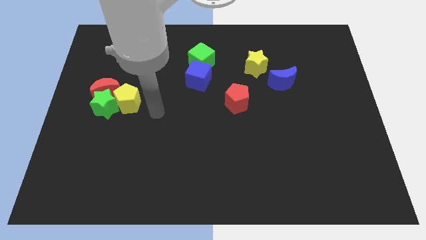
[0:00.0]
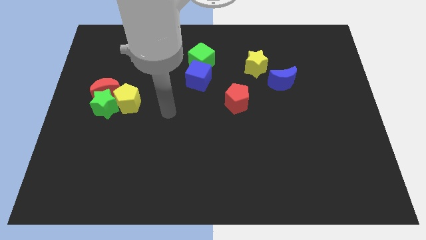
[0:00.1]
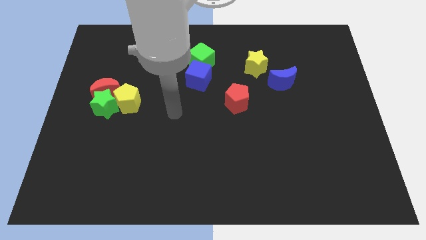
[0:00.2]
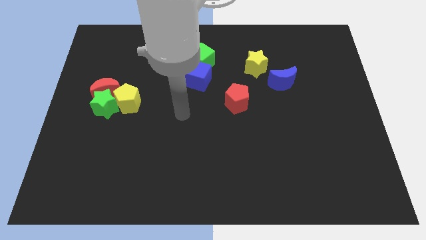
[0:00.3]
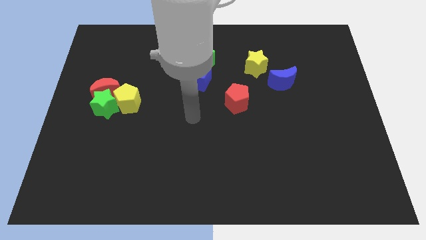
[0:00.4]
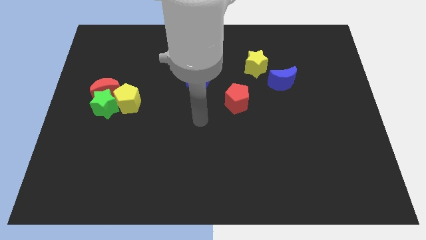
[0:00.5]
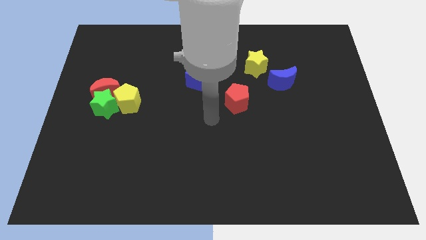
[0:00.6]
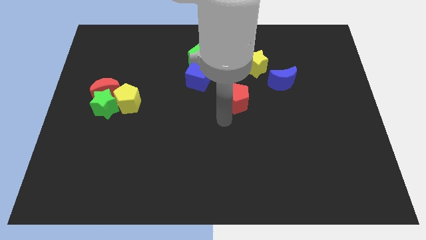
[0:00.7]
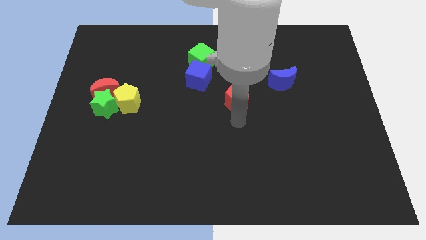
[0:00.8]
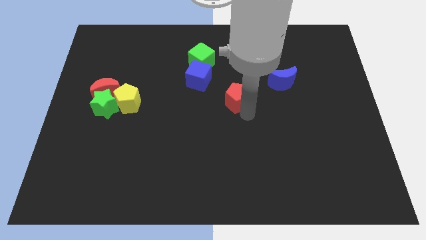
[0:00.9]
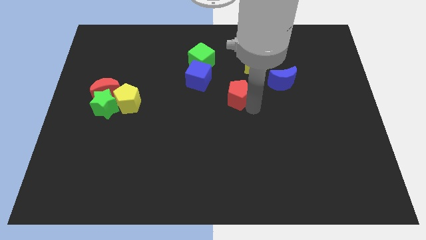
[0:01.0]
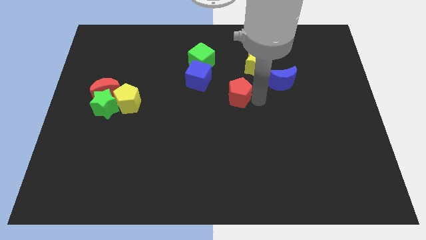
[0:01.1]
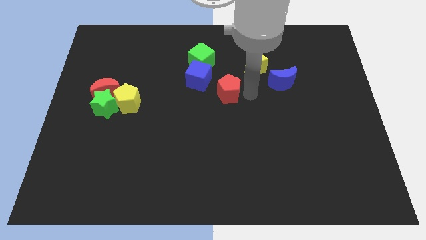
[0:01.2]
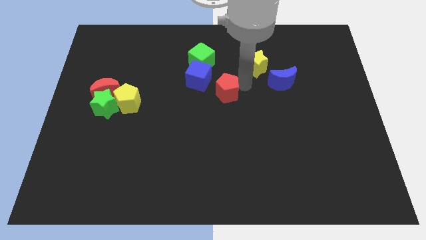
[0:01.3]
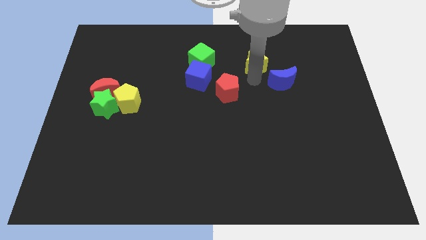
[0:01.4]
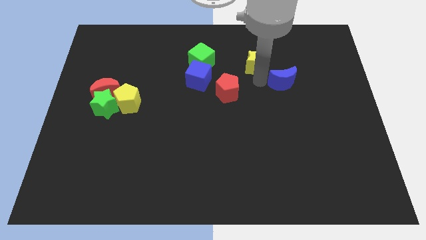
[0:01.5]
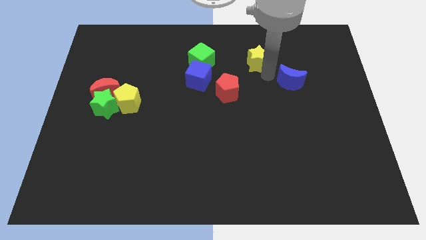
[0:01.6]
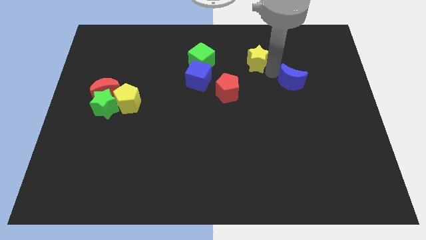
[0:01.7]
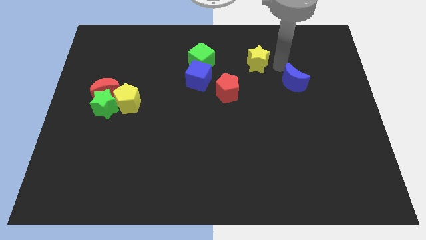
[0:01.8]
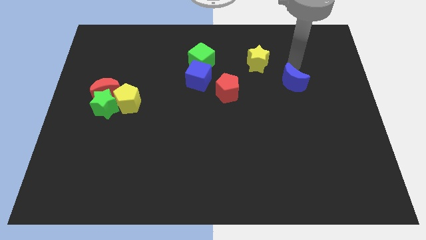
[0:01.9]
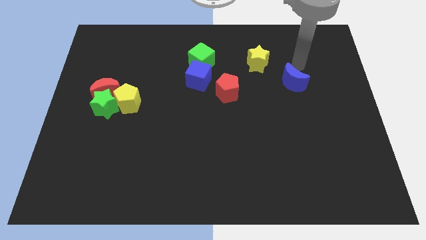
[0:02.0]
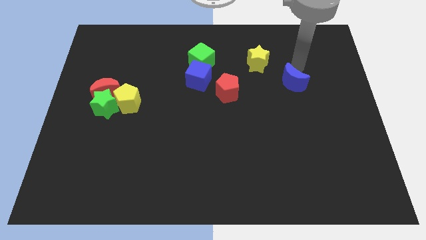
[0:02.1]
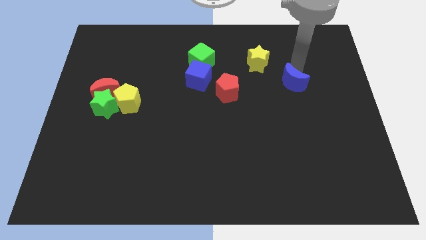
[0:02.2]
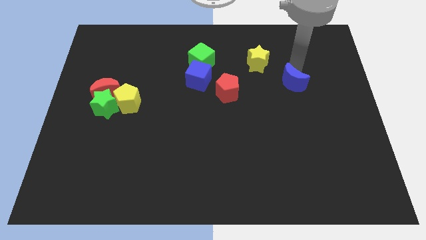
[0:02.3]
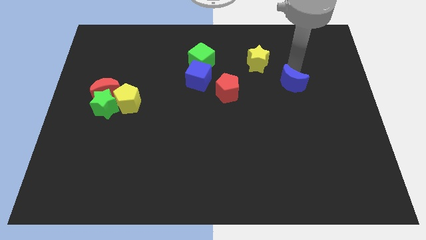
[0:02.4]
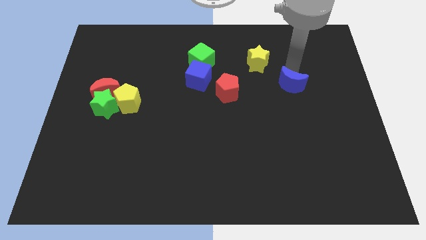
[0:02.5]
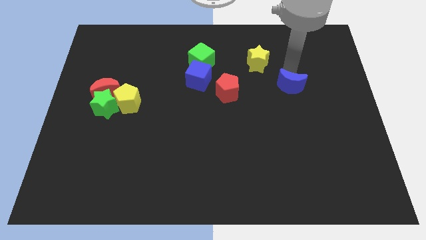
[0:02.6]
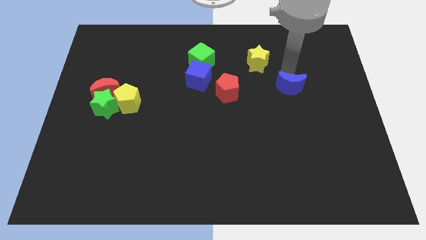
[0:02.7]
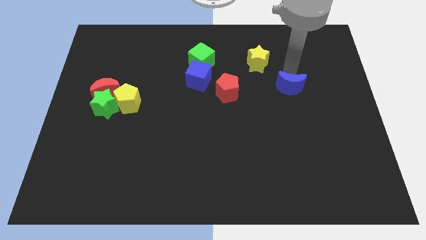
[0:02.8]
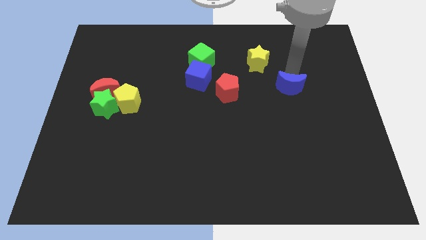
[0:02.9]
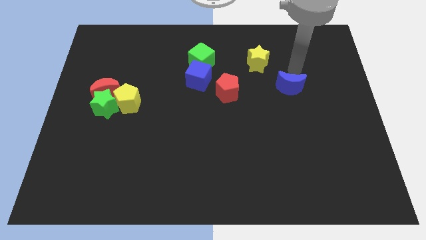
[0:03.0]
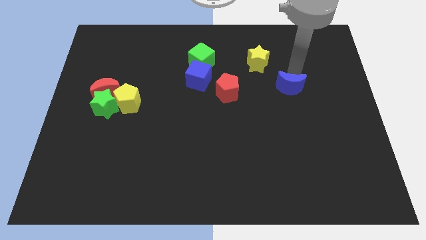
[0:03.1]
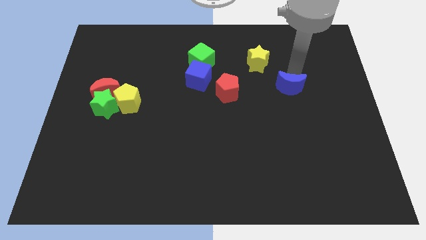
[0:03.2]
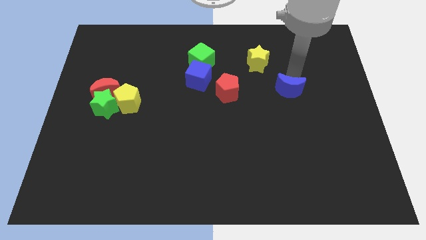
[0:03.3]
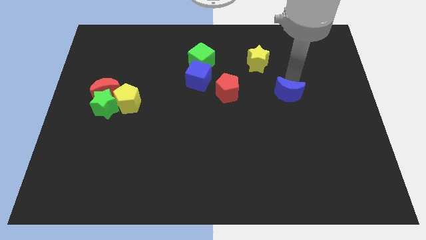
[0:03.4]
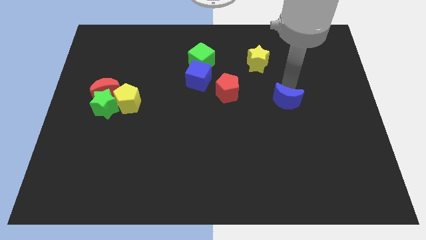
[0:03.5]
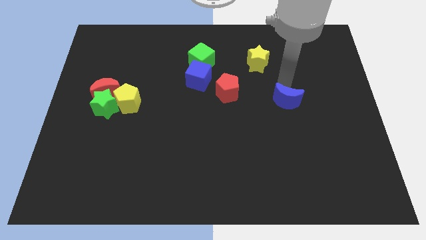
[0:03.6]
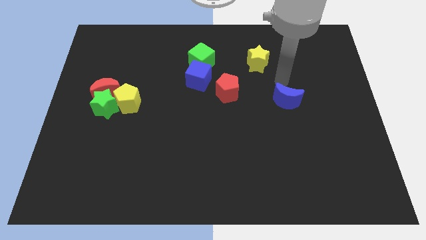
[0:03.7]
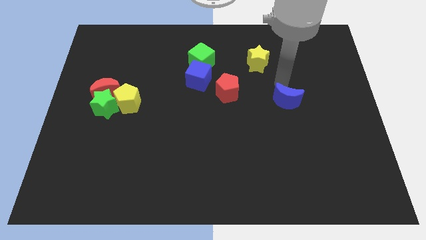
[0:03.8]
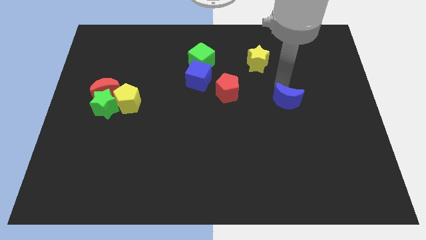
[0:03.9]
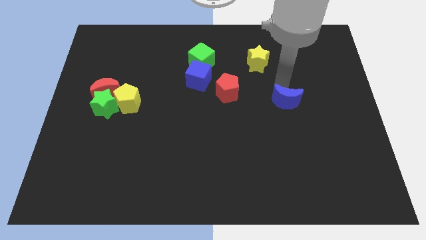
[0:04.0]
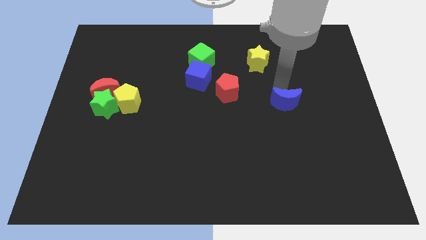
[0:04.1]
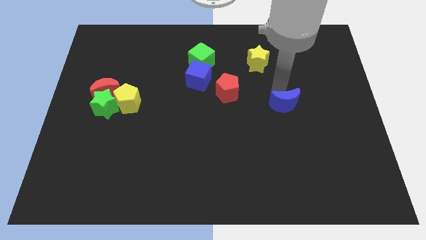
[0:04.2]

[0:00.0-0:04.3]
slightly slide the blue moon down

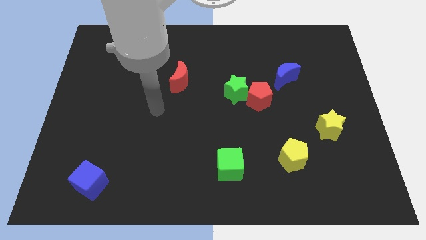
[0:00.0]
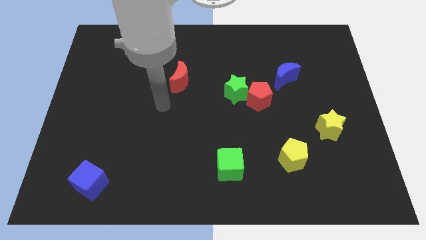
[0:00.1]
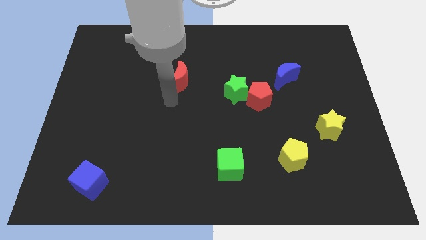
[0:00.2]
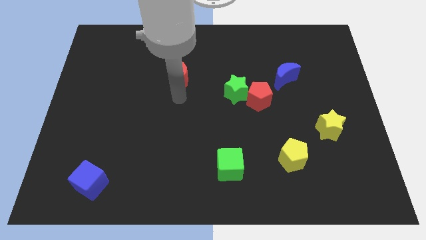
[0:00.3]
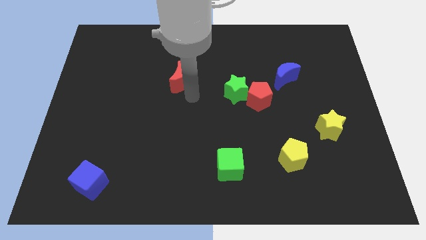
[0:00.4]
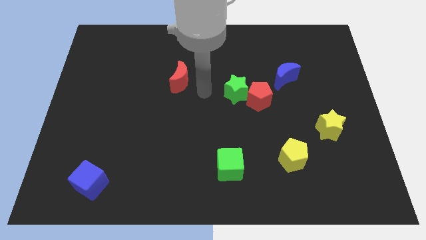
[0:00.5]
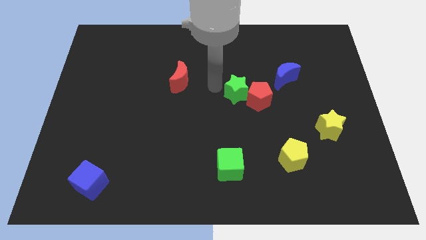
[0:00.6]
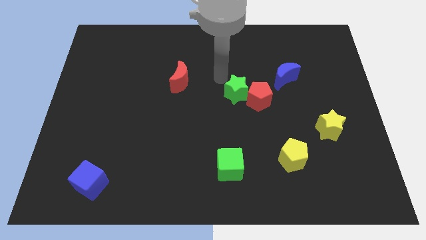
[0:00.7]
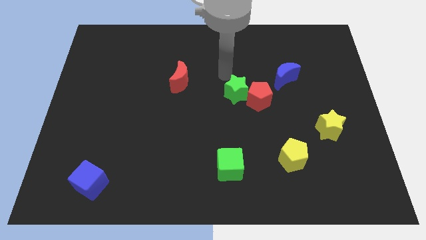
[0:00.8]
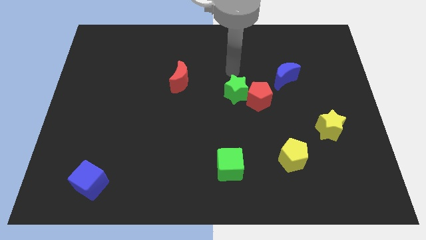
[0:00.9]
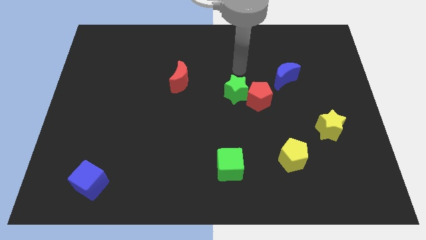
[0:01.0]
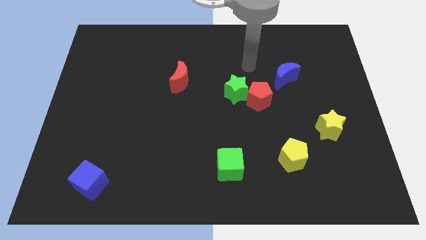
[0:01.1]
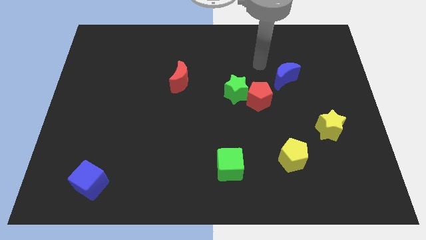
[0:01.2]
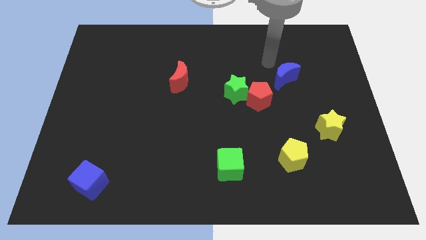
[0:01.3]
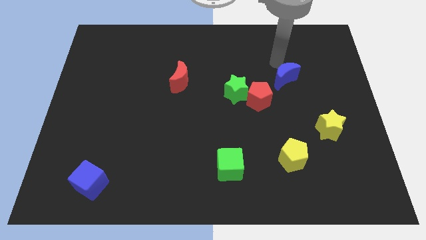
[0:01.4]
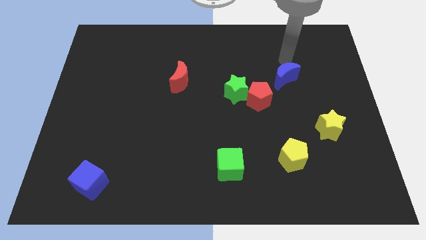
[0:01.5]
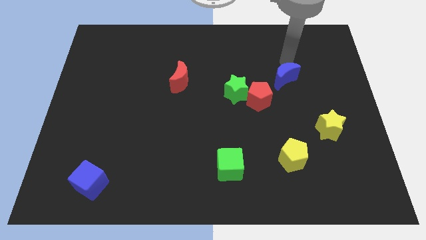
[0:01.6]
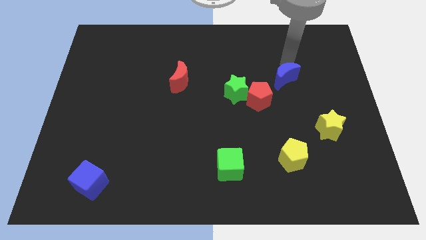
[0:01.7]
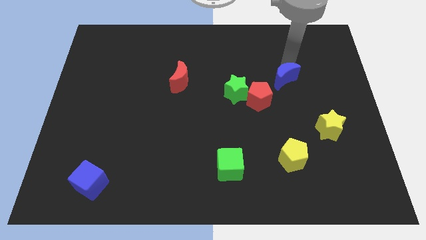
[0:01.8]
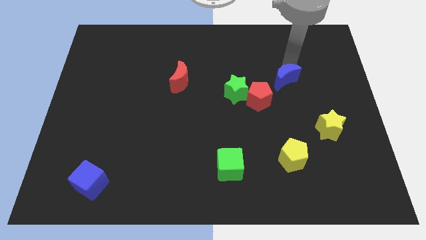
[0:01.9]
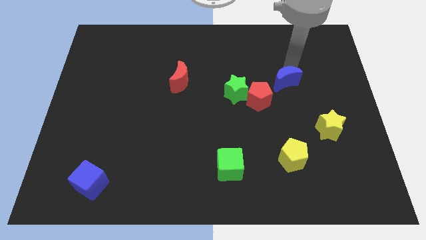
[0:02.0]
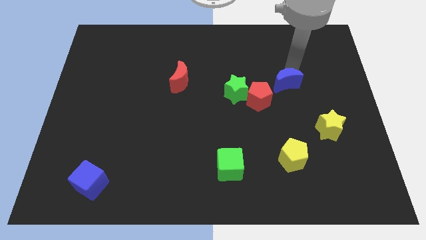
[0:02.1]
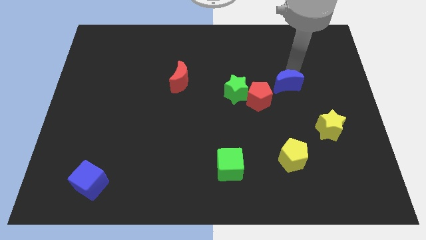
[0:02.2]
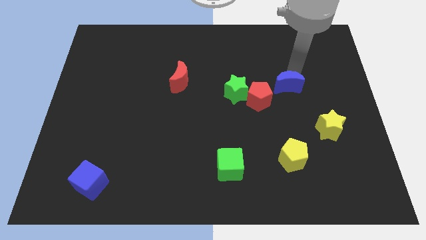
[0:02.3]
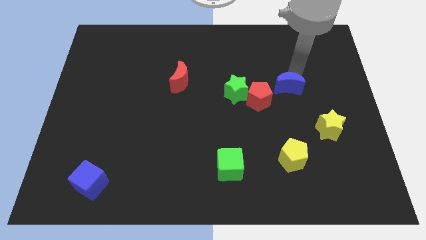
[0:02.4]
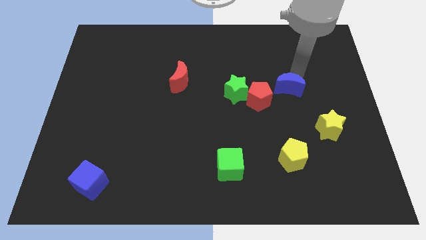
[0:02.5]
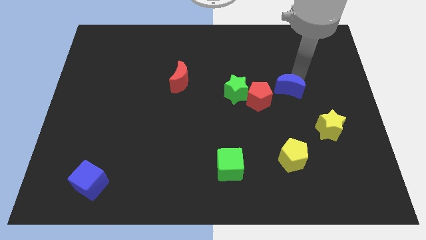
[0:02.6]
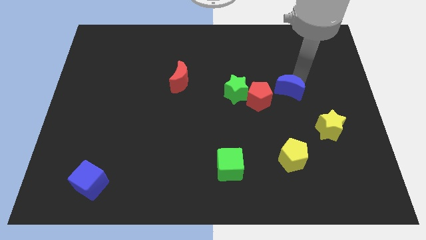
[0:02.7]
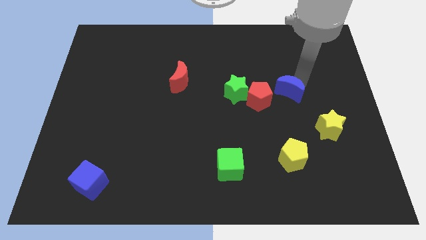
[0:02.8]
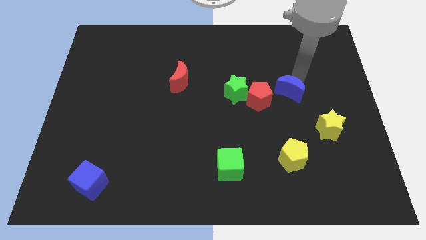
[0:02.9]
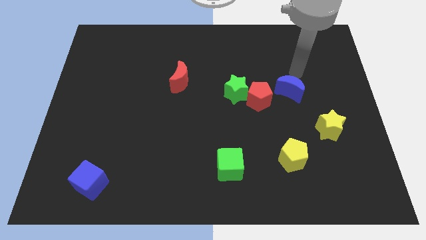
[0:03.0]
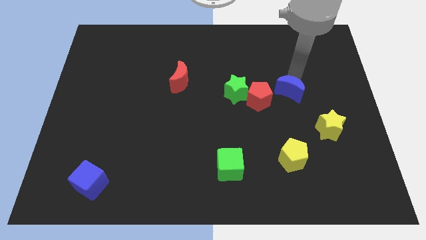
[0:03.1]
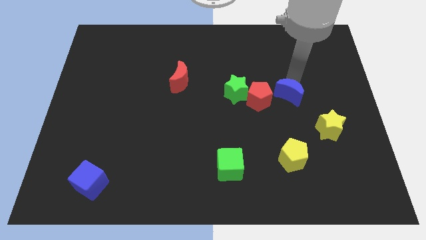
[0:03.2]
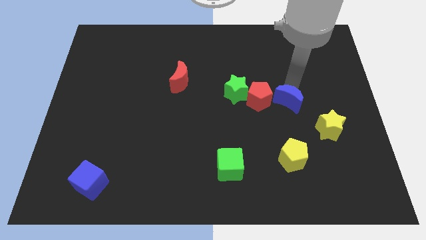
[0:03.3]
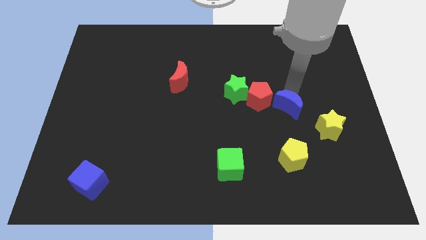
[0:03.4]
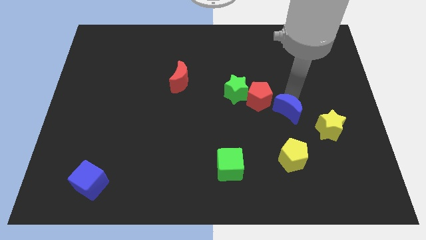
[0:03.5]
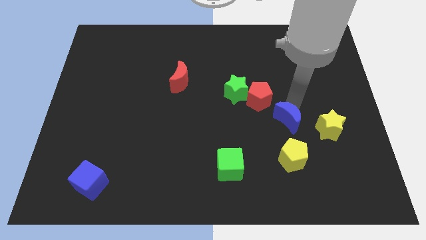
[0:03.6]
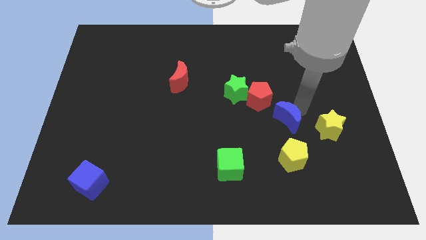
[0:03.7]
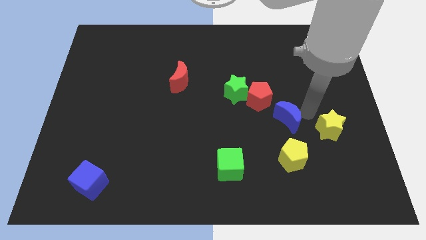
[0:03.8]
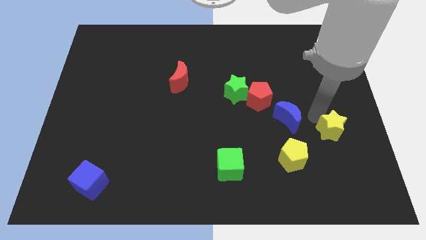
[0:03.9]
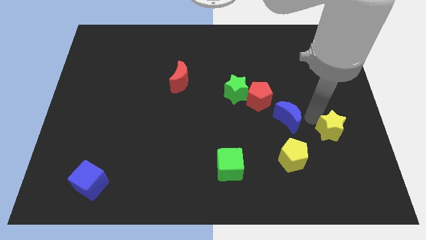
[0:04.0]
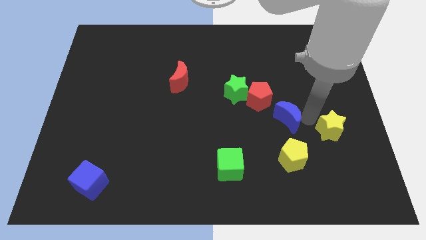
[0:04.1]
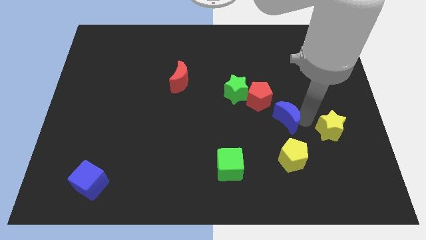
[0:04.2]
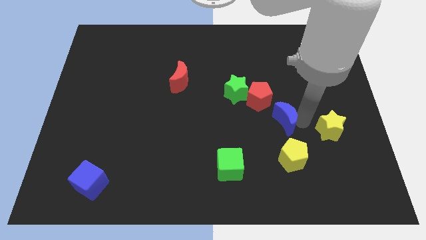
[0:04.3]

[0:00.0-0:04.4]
slide the blue moon somewhat diagonally down and to the left
